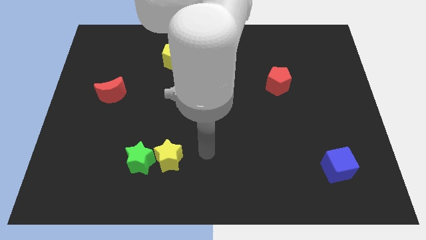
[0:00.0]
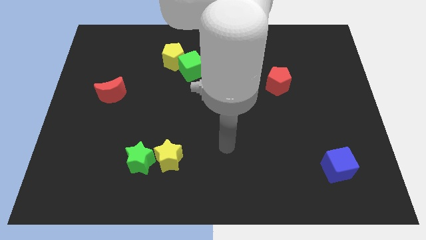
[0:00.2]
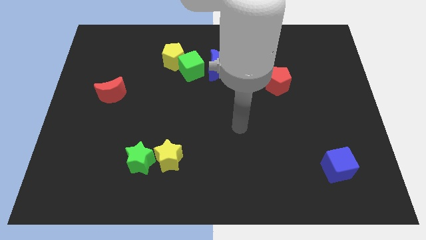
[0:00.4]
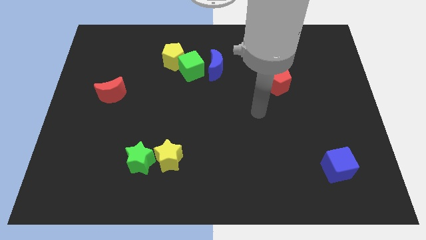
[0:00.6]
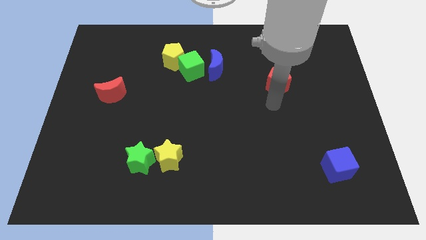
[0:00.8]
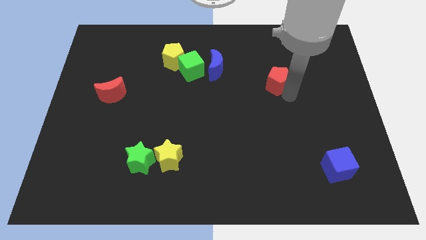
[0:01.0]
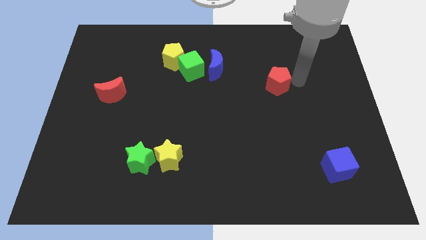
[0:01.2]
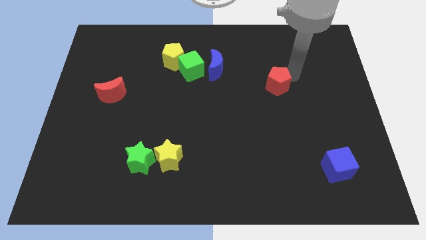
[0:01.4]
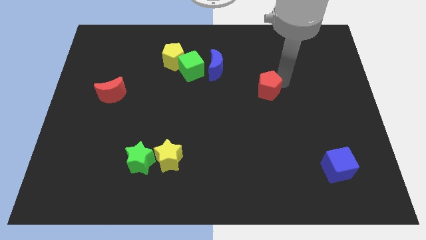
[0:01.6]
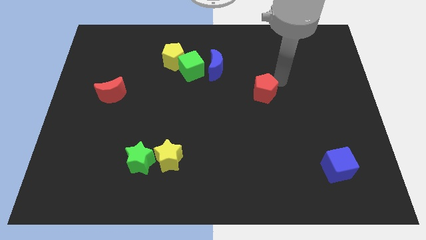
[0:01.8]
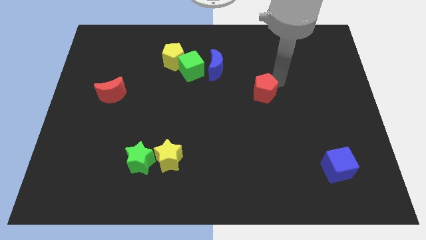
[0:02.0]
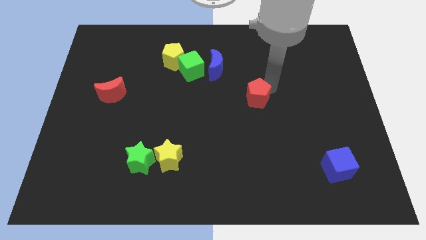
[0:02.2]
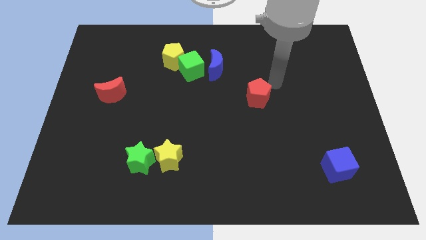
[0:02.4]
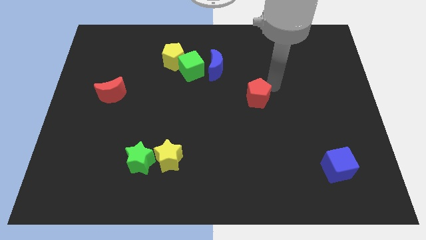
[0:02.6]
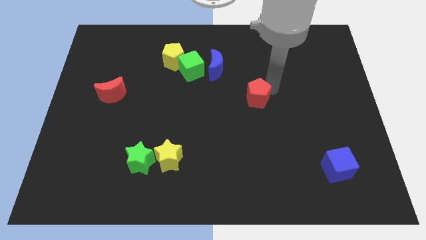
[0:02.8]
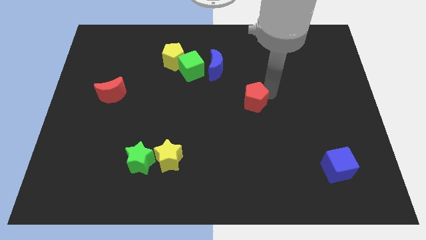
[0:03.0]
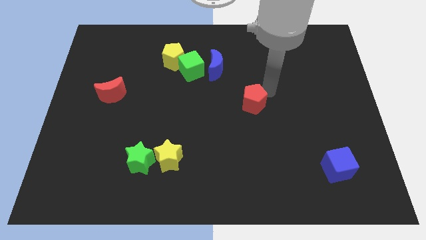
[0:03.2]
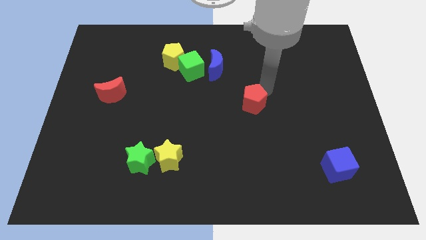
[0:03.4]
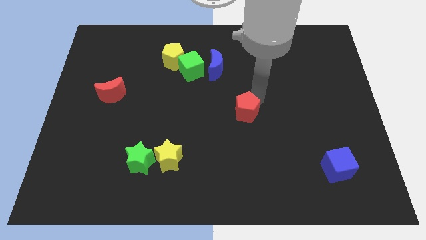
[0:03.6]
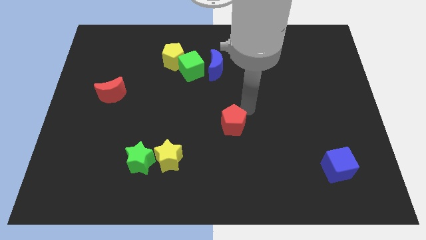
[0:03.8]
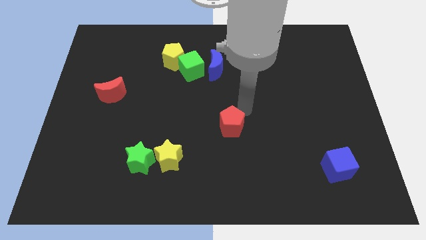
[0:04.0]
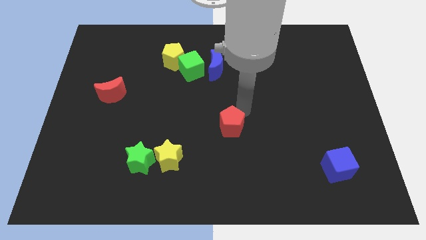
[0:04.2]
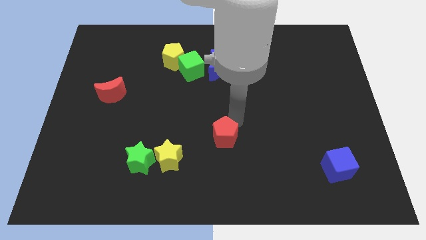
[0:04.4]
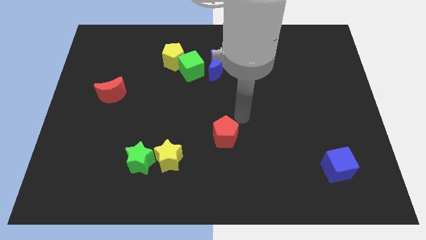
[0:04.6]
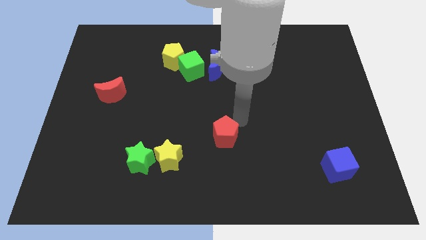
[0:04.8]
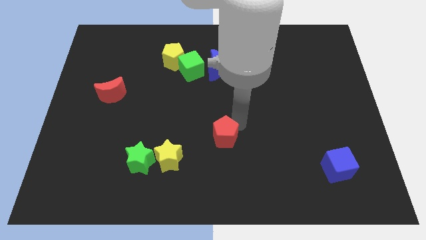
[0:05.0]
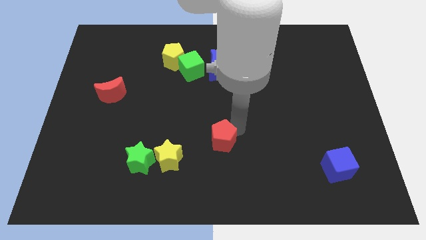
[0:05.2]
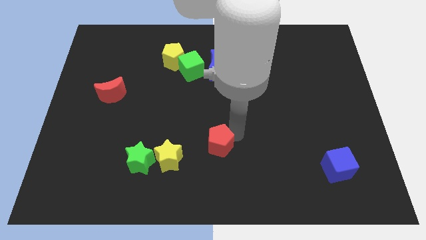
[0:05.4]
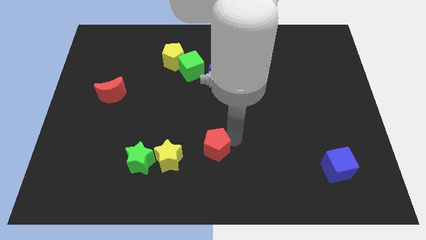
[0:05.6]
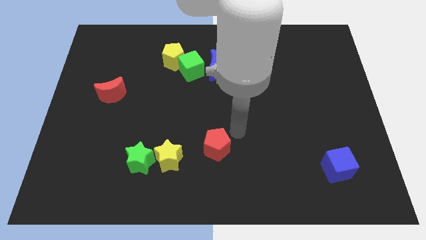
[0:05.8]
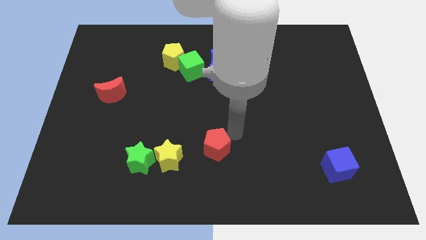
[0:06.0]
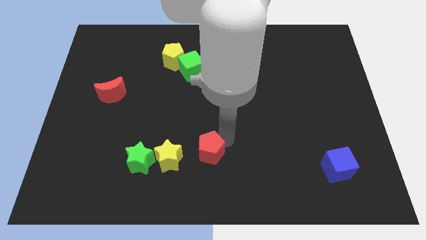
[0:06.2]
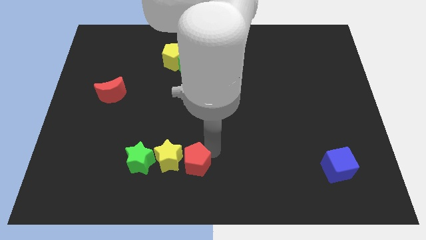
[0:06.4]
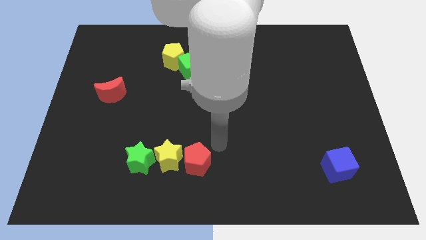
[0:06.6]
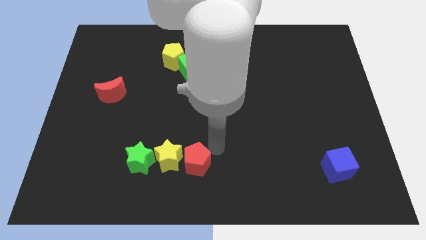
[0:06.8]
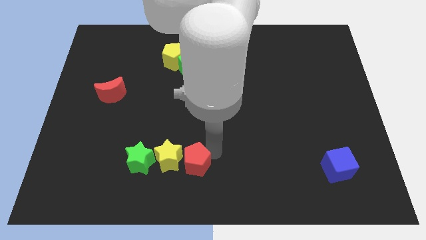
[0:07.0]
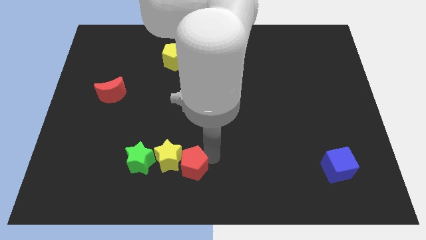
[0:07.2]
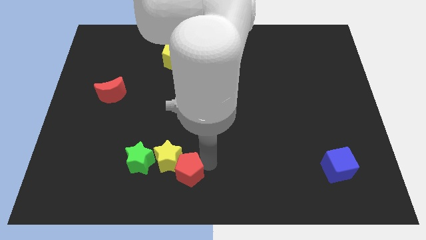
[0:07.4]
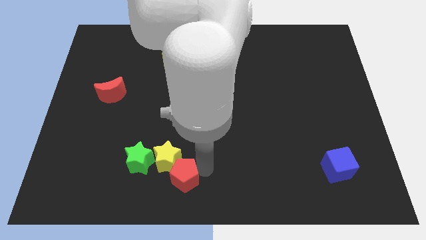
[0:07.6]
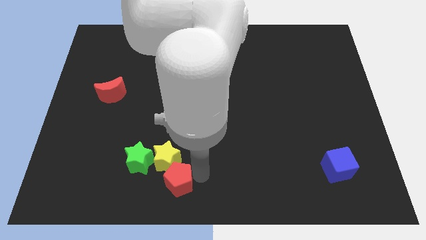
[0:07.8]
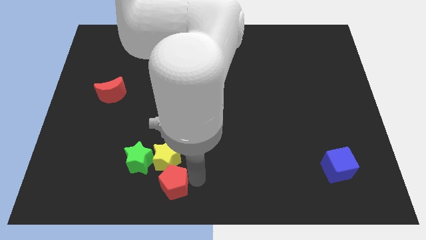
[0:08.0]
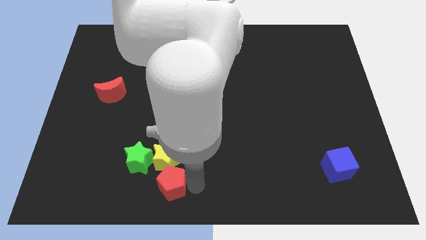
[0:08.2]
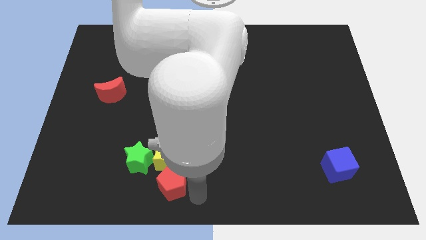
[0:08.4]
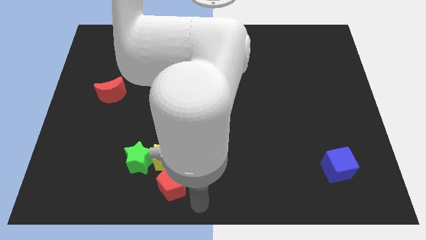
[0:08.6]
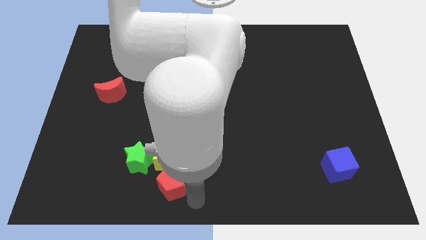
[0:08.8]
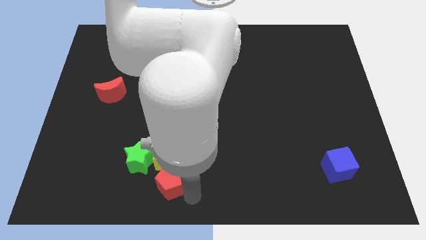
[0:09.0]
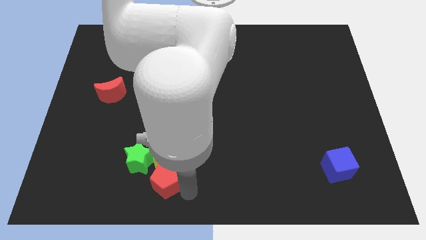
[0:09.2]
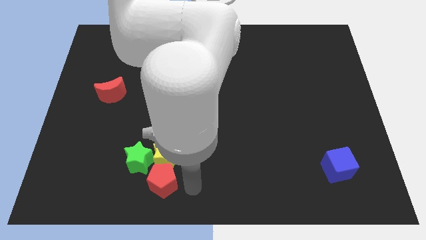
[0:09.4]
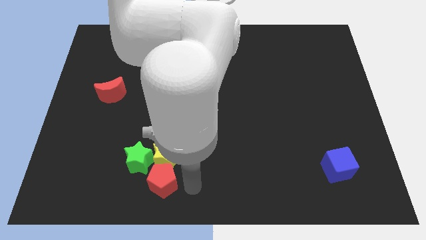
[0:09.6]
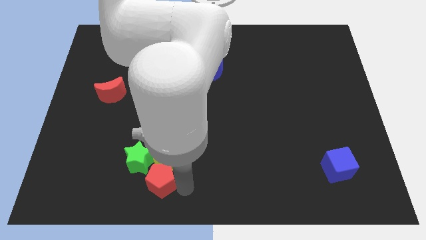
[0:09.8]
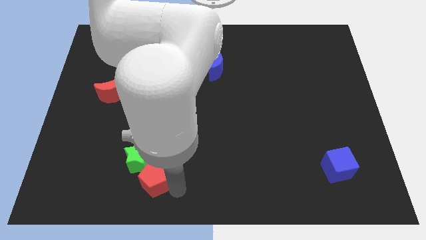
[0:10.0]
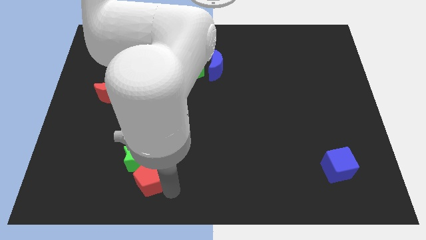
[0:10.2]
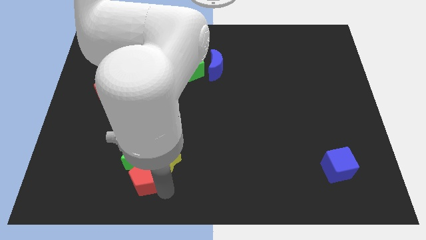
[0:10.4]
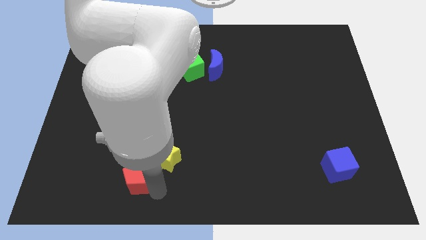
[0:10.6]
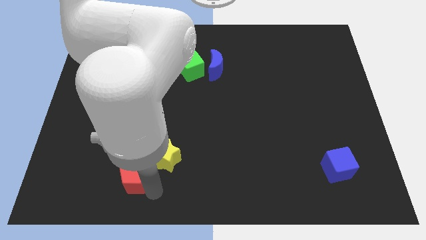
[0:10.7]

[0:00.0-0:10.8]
move the red pentagon to the bottom left of the green star

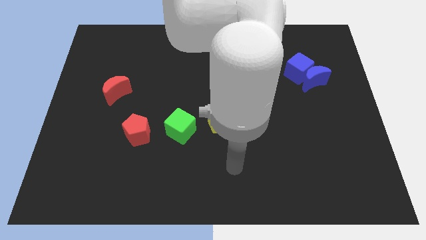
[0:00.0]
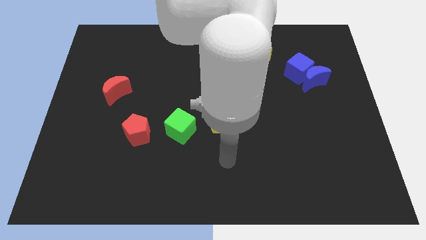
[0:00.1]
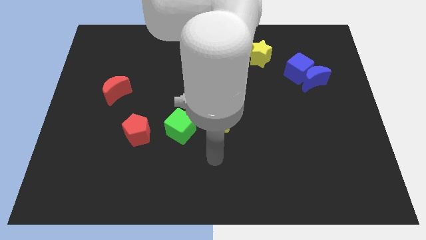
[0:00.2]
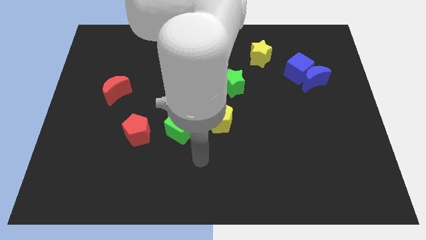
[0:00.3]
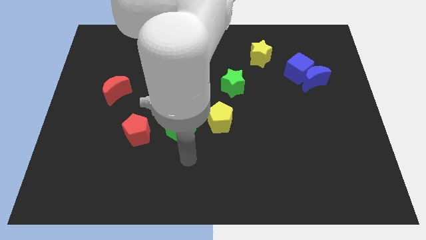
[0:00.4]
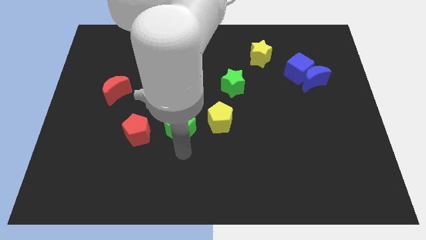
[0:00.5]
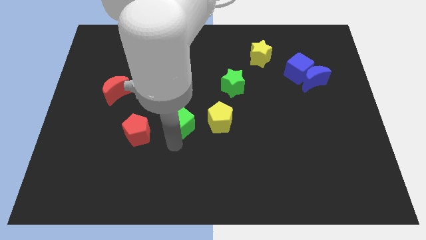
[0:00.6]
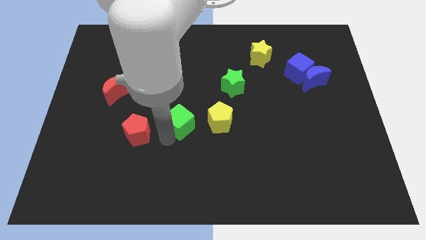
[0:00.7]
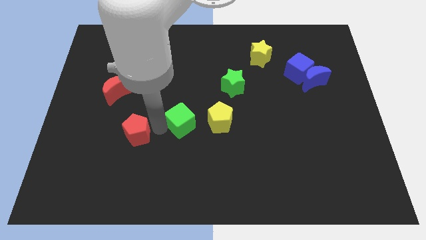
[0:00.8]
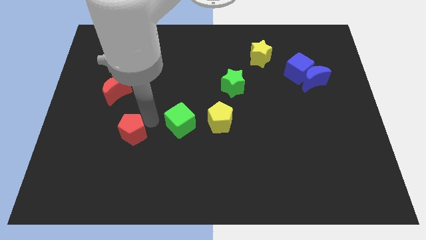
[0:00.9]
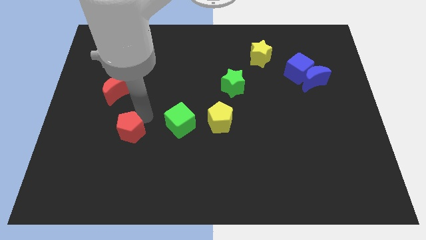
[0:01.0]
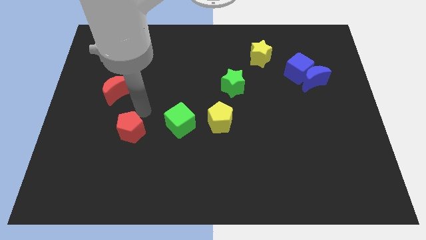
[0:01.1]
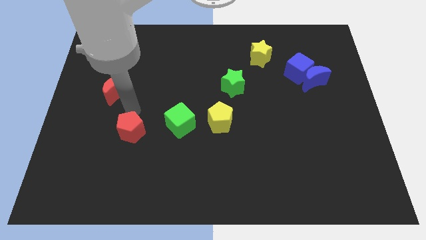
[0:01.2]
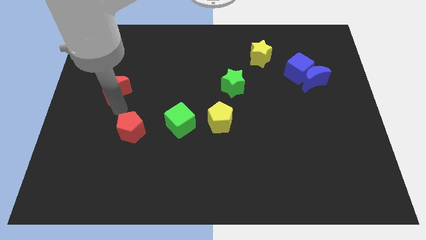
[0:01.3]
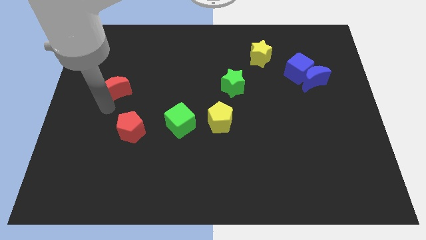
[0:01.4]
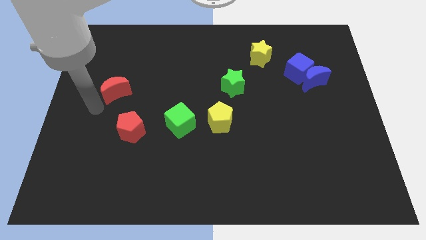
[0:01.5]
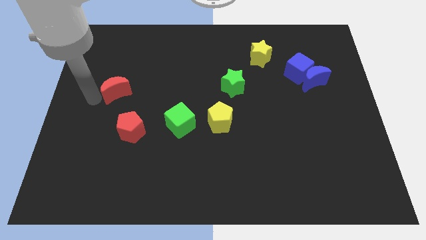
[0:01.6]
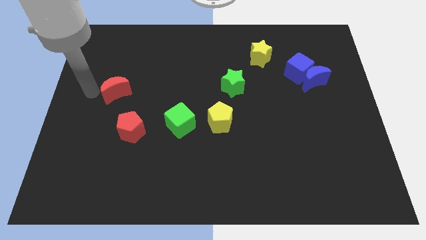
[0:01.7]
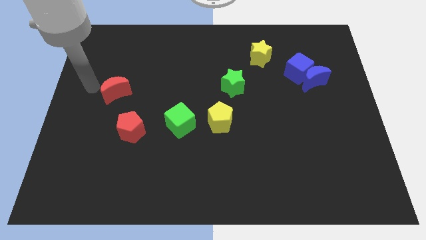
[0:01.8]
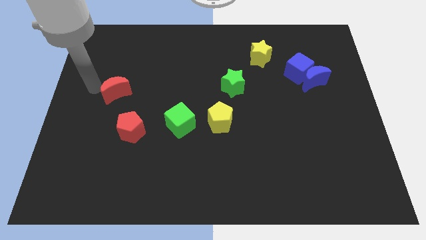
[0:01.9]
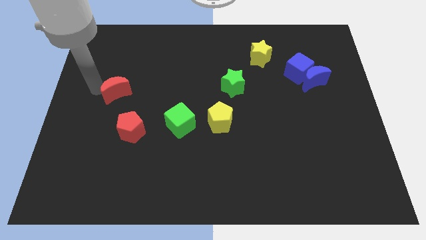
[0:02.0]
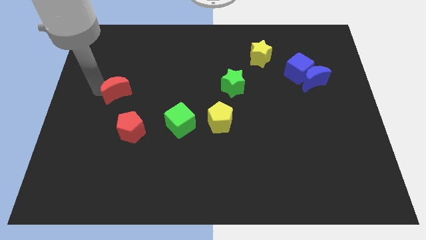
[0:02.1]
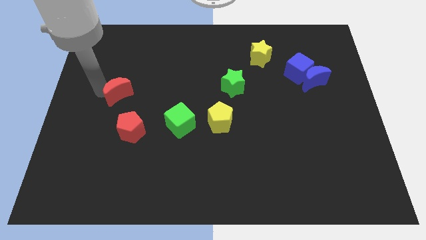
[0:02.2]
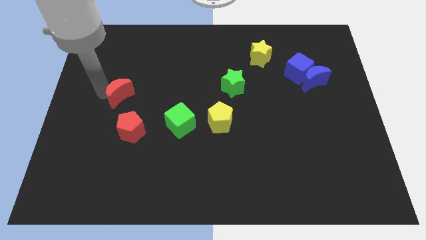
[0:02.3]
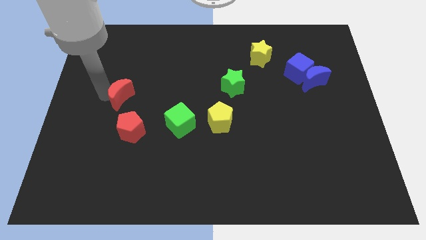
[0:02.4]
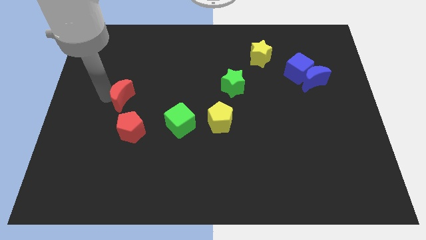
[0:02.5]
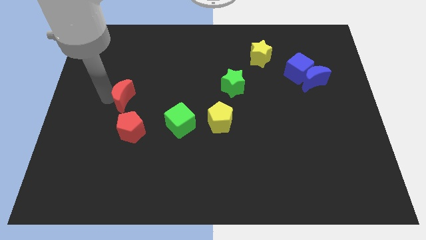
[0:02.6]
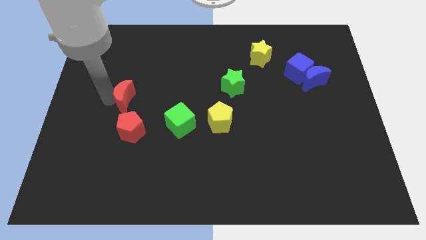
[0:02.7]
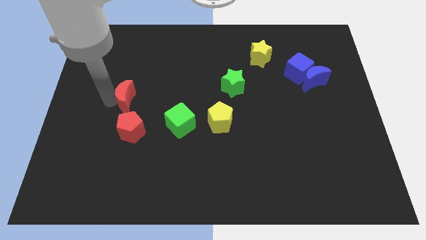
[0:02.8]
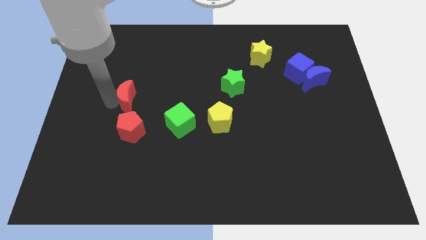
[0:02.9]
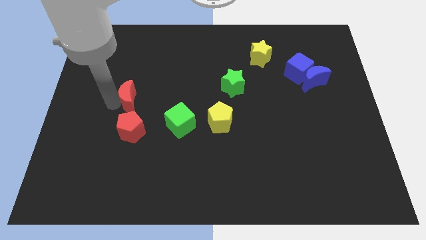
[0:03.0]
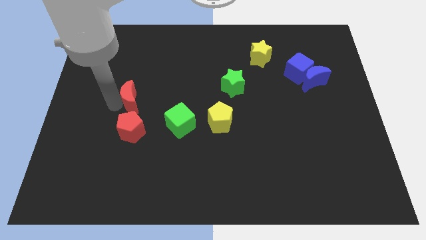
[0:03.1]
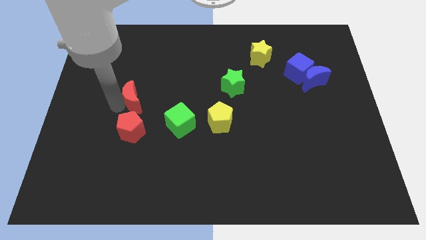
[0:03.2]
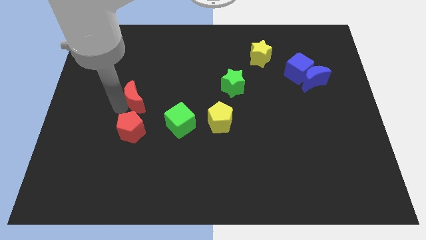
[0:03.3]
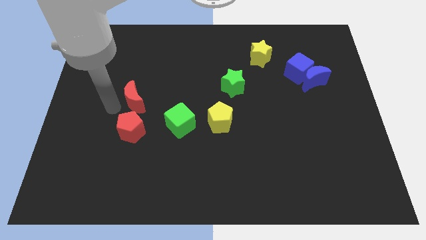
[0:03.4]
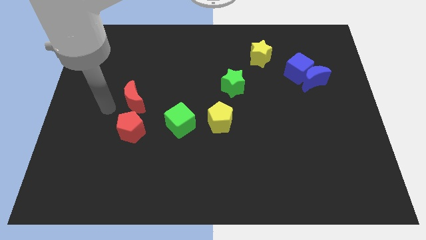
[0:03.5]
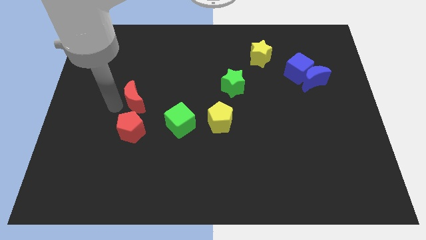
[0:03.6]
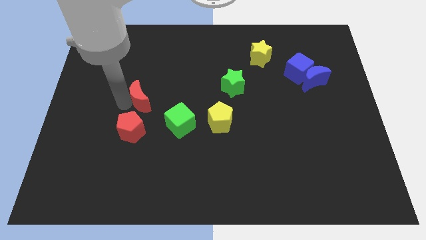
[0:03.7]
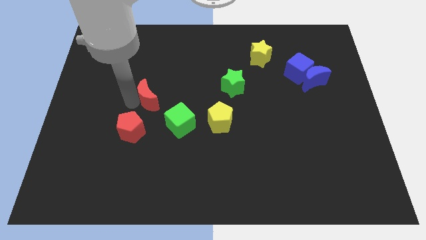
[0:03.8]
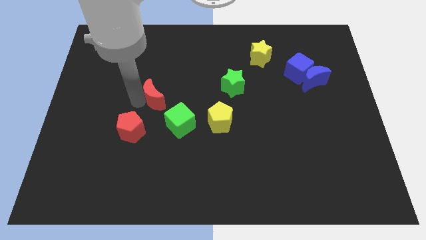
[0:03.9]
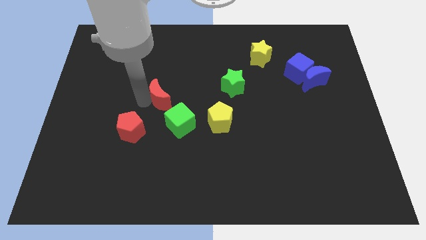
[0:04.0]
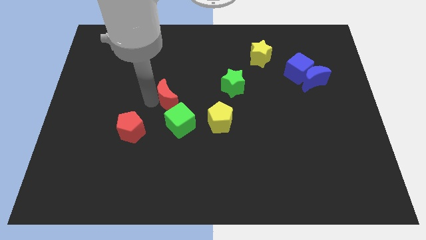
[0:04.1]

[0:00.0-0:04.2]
put the red moon to the top of the green cube
